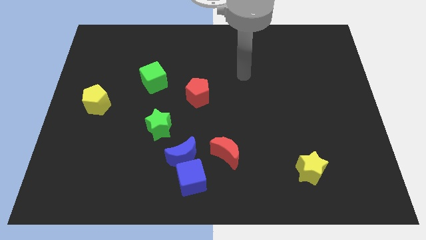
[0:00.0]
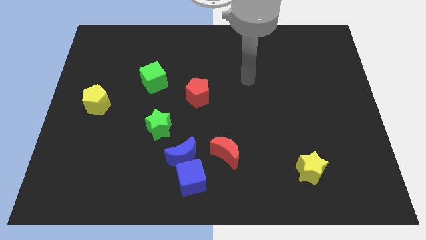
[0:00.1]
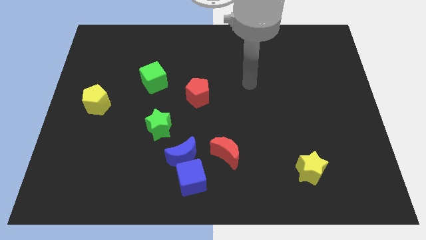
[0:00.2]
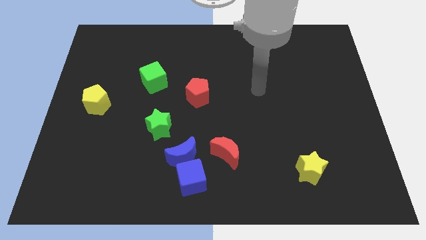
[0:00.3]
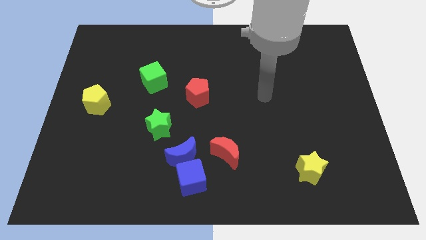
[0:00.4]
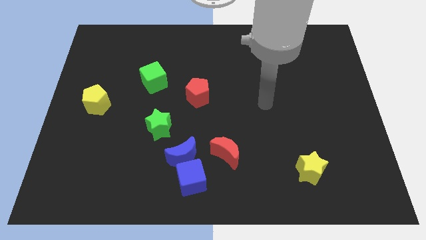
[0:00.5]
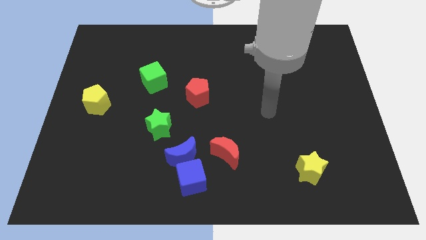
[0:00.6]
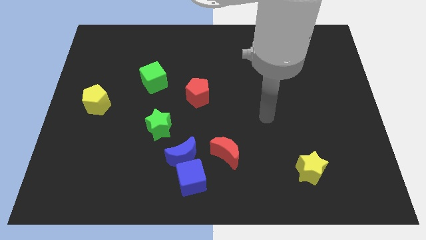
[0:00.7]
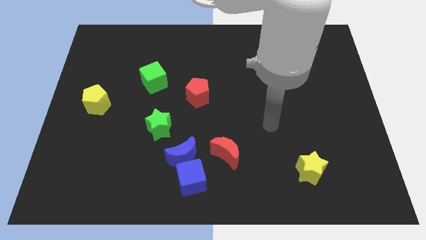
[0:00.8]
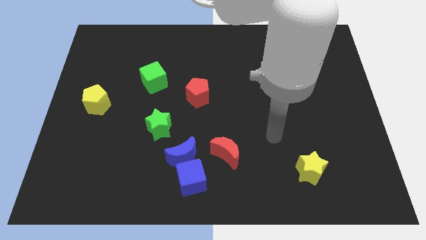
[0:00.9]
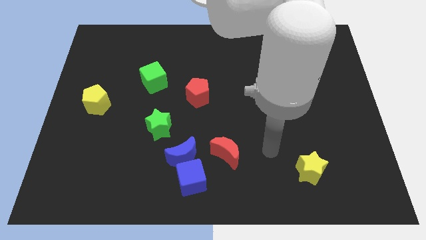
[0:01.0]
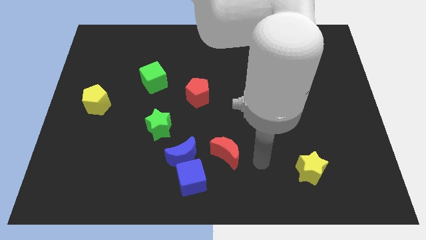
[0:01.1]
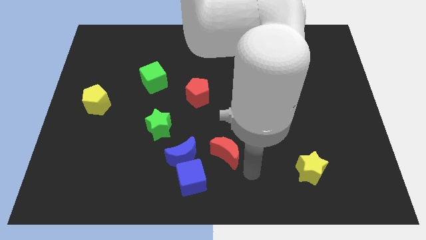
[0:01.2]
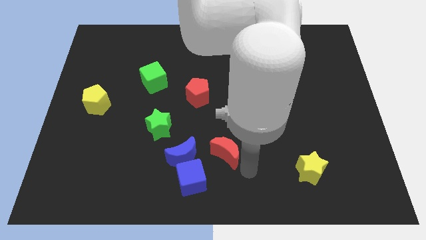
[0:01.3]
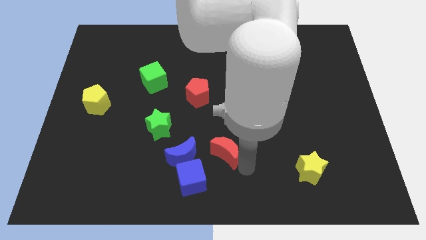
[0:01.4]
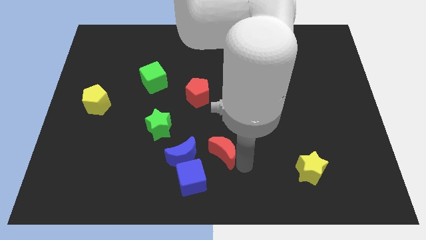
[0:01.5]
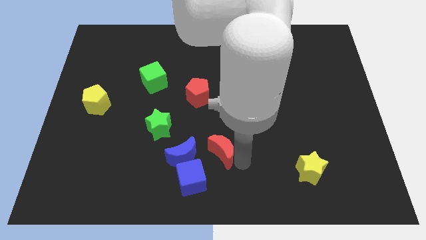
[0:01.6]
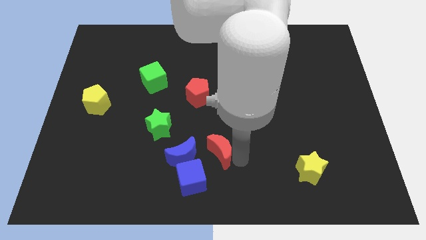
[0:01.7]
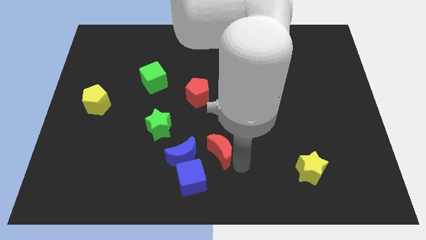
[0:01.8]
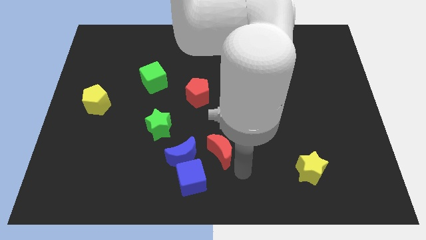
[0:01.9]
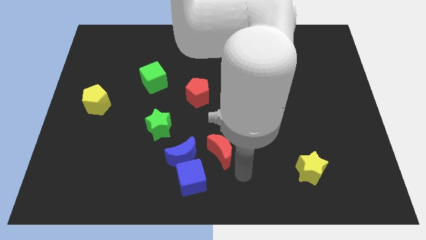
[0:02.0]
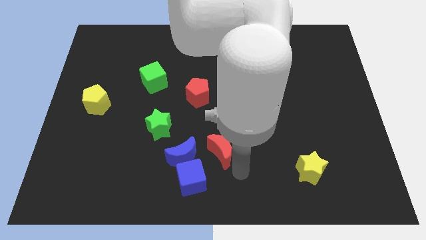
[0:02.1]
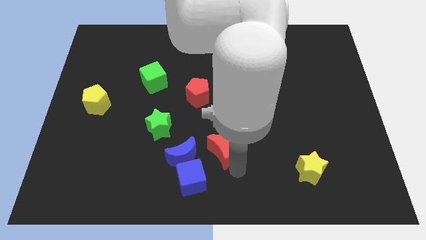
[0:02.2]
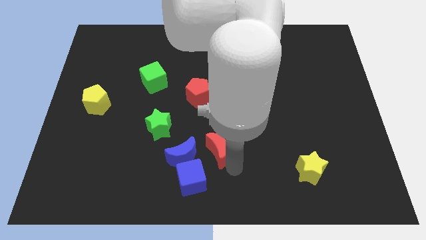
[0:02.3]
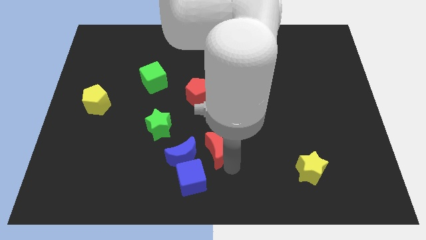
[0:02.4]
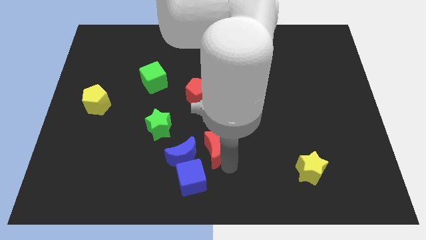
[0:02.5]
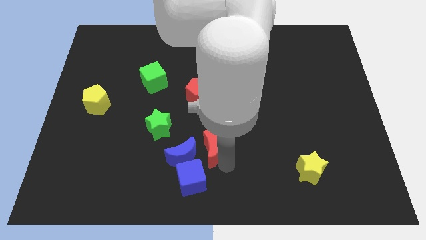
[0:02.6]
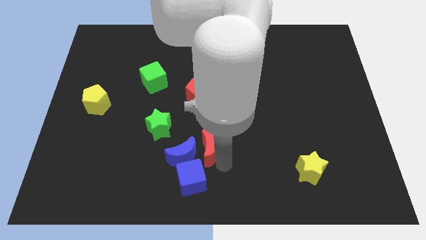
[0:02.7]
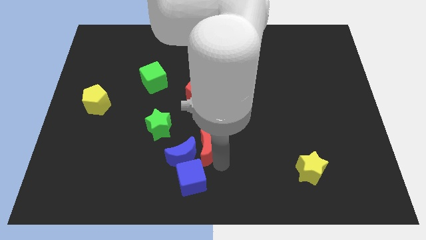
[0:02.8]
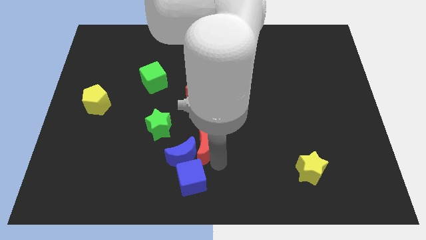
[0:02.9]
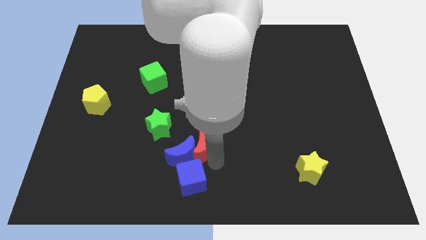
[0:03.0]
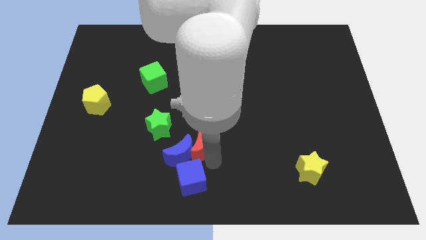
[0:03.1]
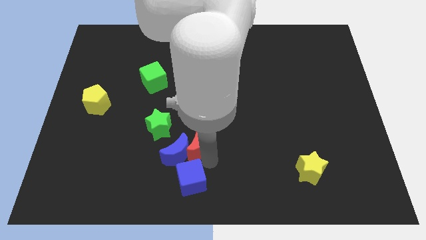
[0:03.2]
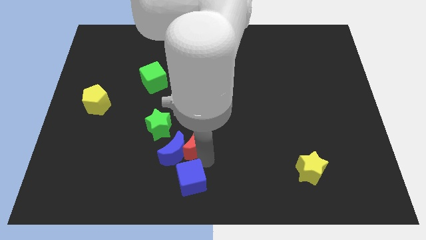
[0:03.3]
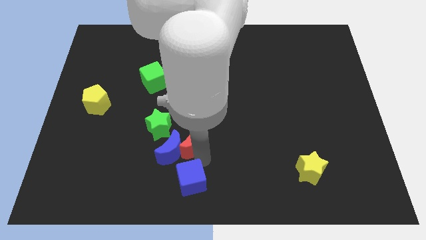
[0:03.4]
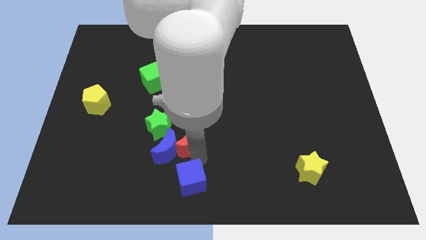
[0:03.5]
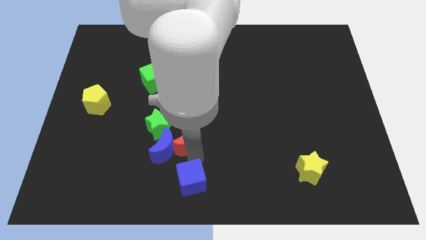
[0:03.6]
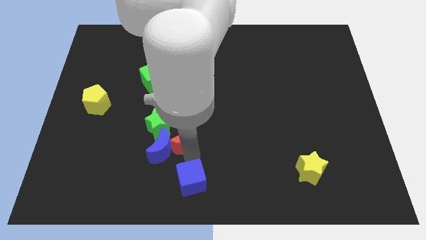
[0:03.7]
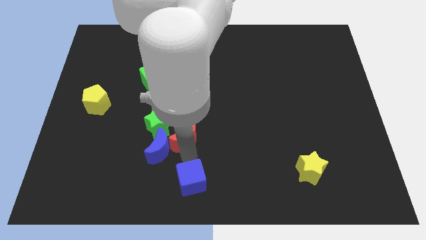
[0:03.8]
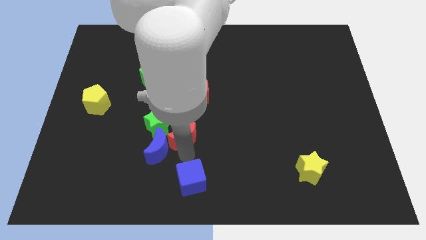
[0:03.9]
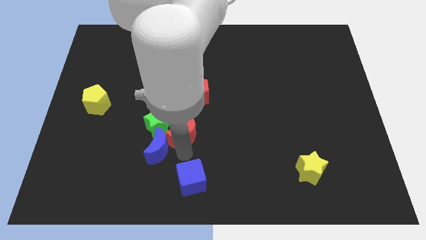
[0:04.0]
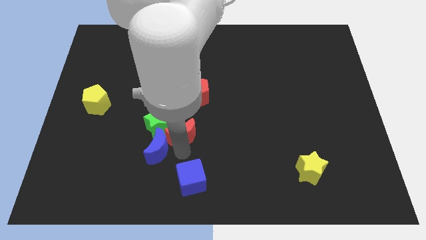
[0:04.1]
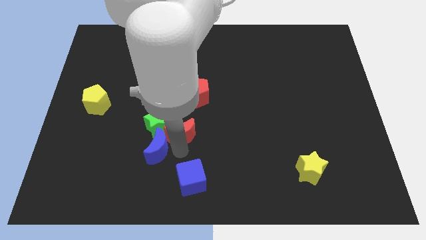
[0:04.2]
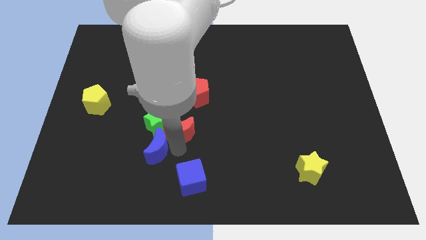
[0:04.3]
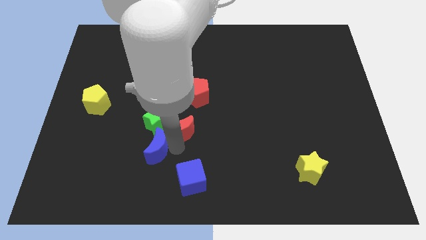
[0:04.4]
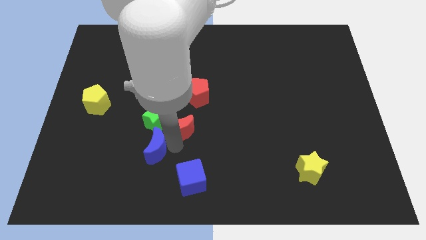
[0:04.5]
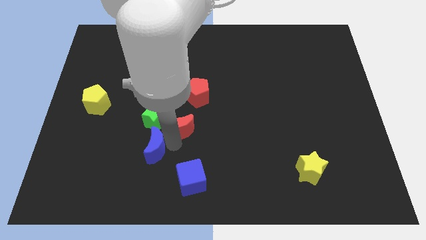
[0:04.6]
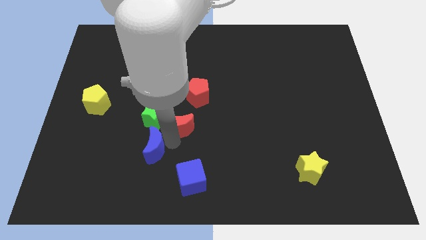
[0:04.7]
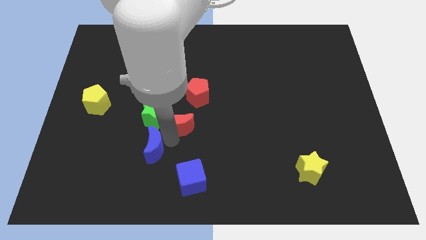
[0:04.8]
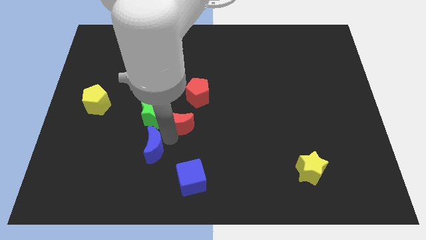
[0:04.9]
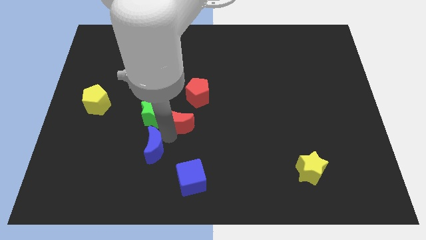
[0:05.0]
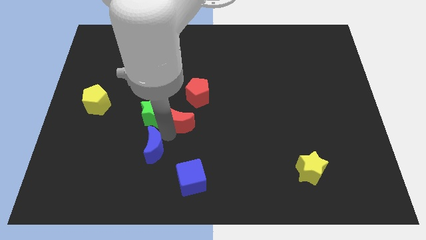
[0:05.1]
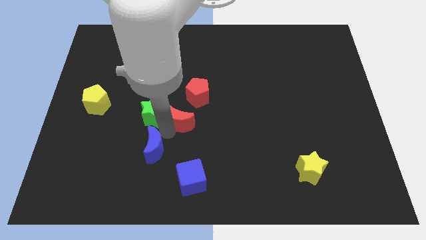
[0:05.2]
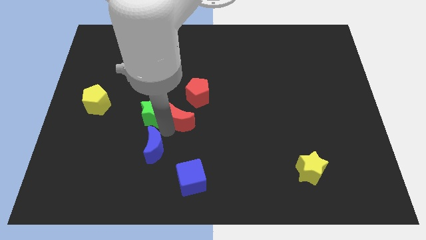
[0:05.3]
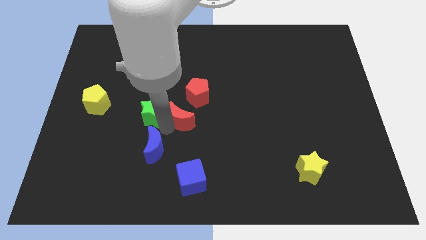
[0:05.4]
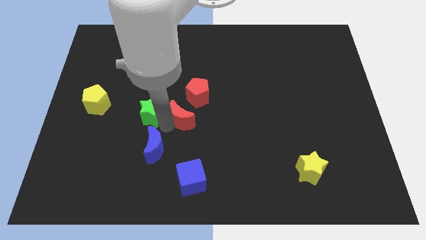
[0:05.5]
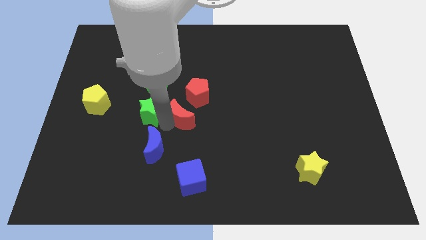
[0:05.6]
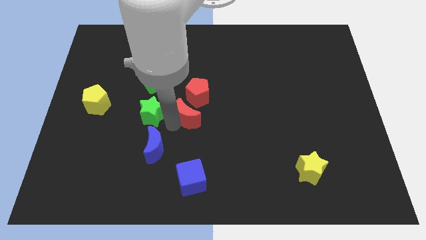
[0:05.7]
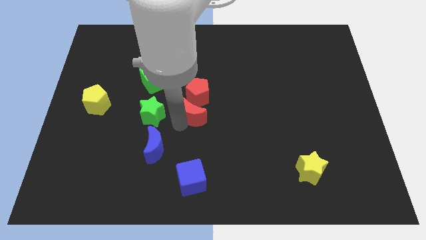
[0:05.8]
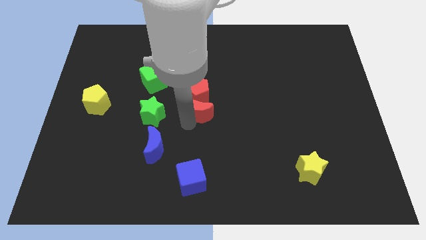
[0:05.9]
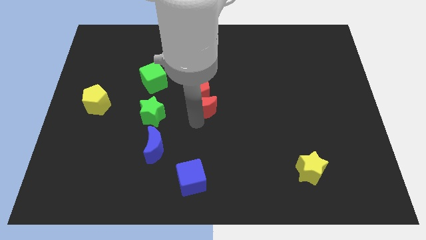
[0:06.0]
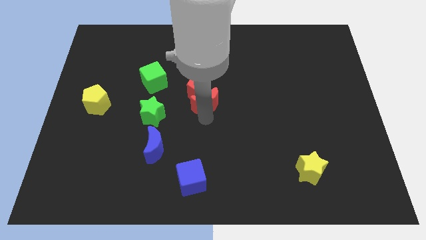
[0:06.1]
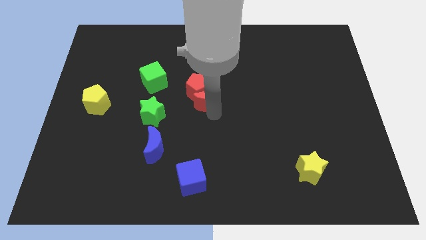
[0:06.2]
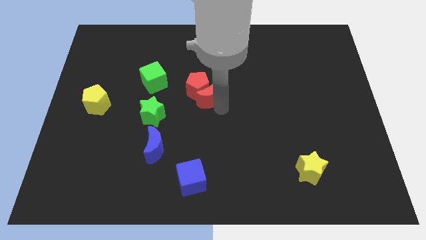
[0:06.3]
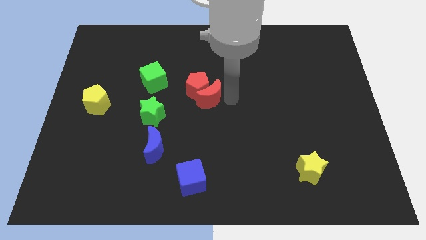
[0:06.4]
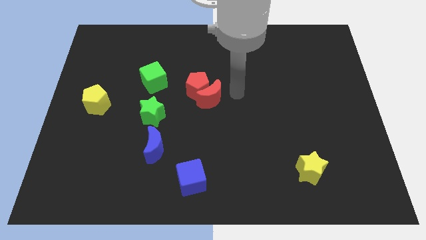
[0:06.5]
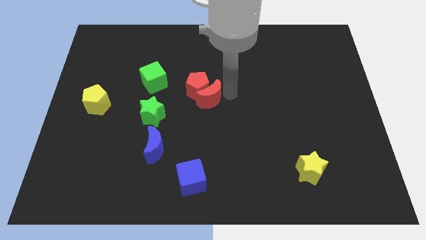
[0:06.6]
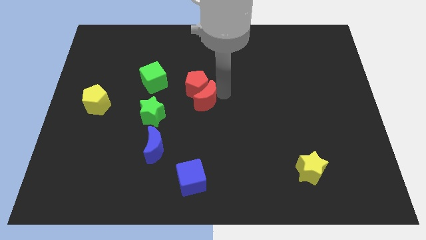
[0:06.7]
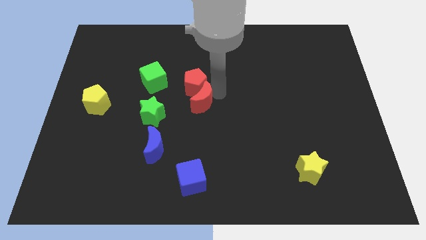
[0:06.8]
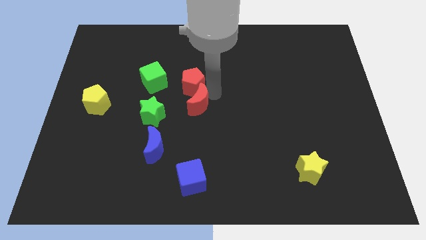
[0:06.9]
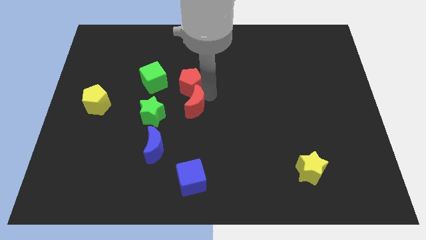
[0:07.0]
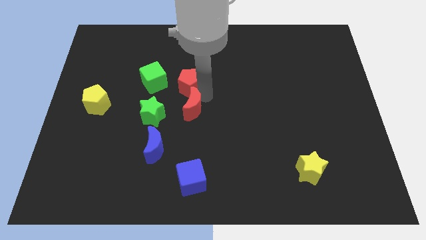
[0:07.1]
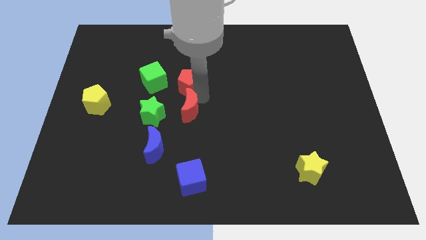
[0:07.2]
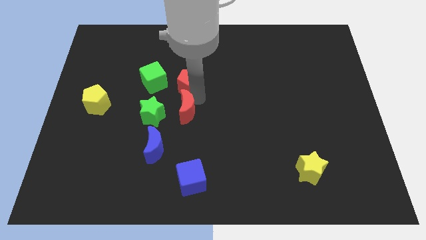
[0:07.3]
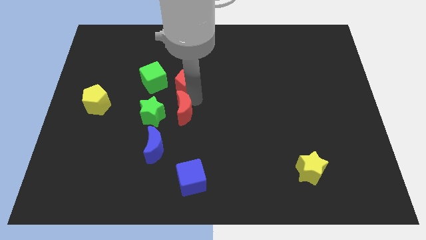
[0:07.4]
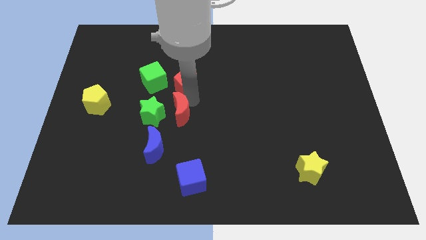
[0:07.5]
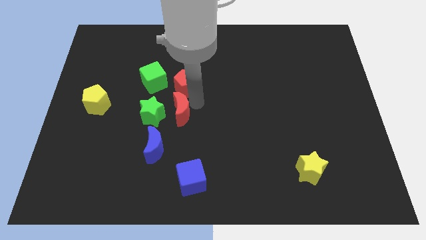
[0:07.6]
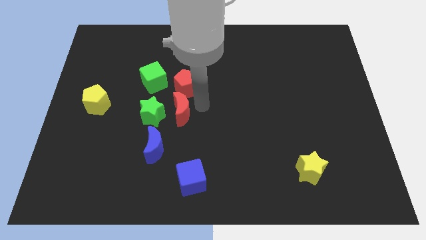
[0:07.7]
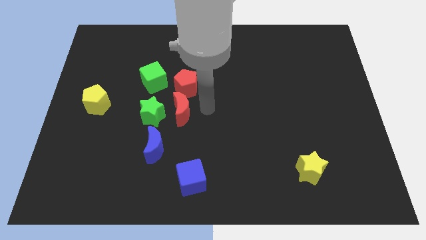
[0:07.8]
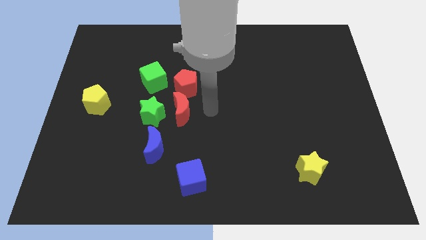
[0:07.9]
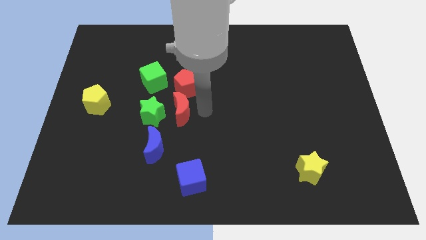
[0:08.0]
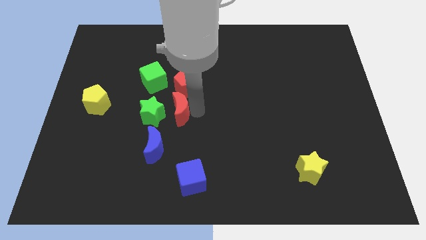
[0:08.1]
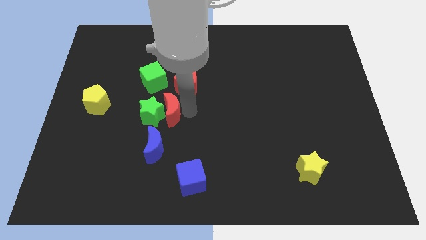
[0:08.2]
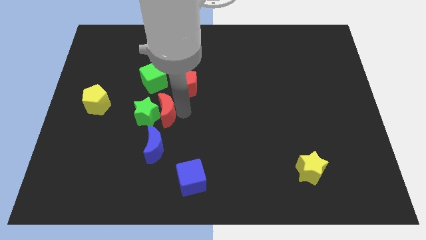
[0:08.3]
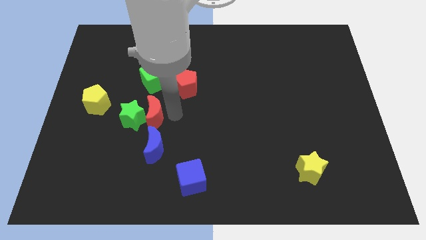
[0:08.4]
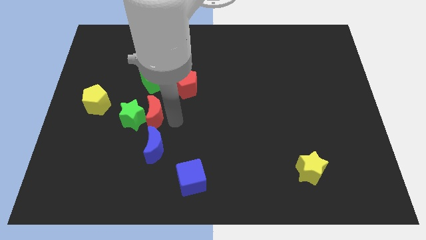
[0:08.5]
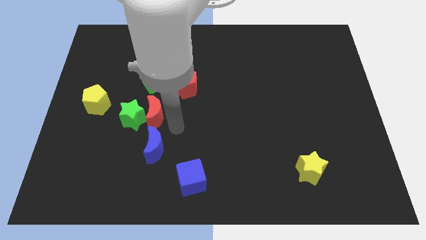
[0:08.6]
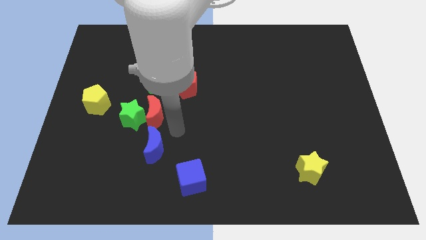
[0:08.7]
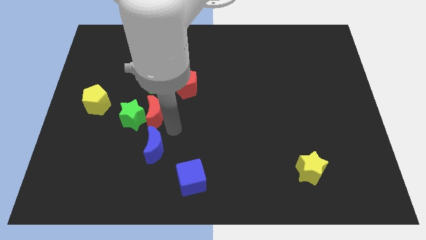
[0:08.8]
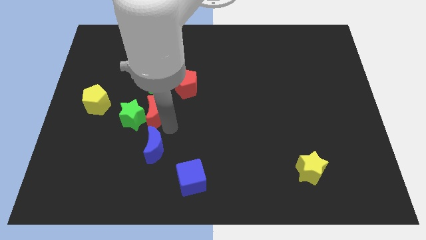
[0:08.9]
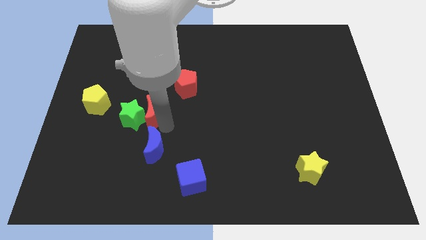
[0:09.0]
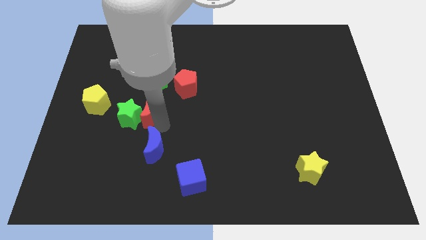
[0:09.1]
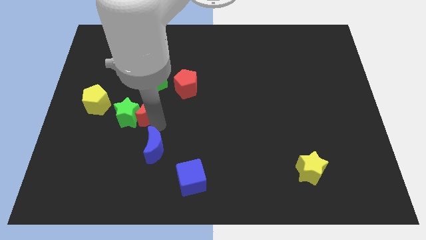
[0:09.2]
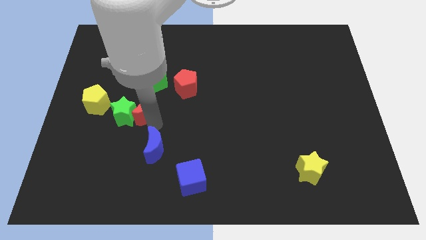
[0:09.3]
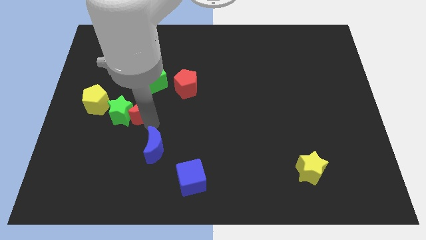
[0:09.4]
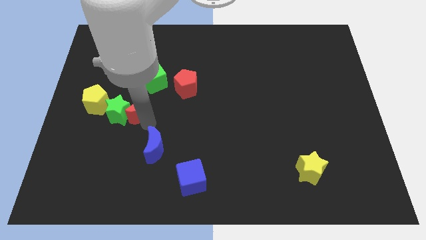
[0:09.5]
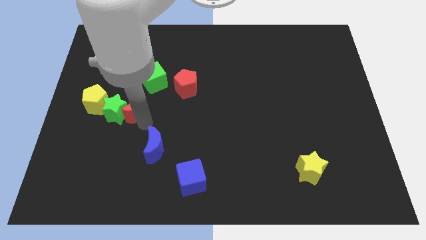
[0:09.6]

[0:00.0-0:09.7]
slide the red moon to the bottom left of the green cube
